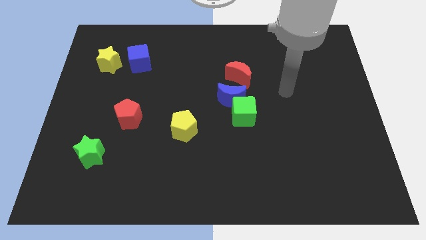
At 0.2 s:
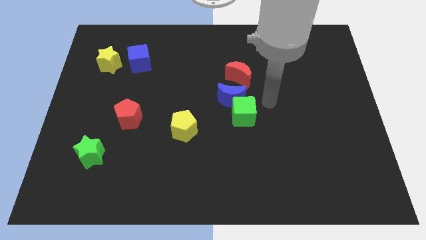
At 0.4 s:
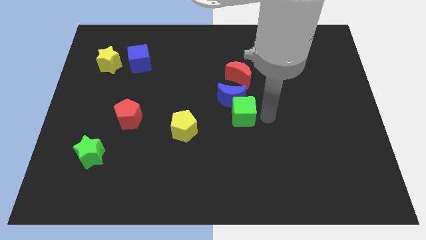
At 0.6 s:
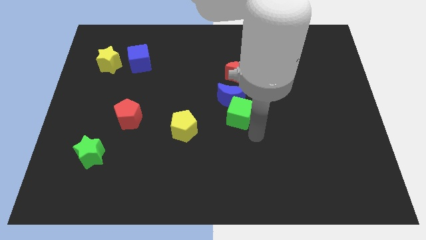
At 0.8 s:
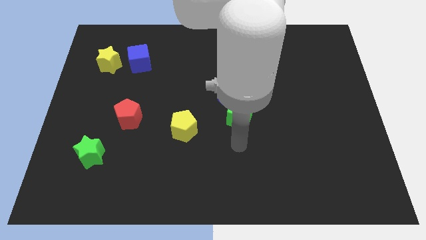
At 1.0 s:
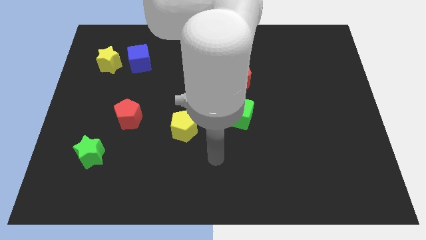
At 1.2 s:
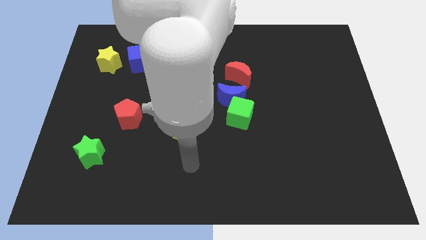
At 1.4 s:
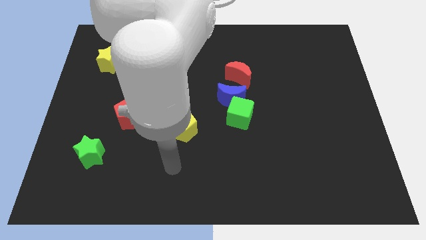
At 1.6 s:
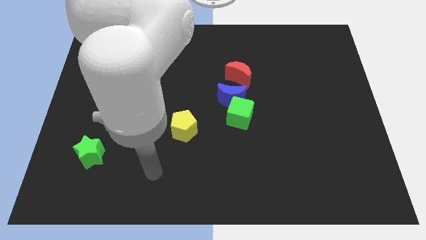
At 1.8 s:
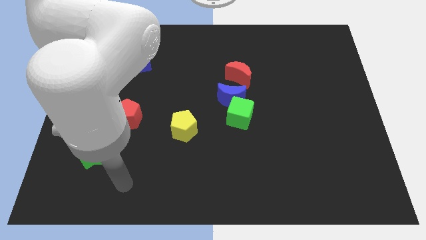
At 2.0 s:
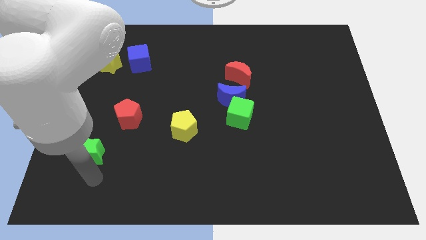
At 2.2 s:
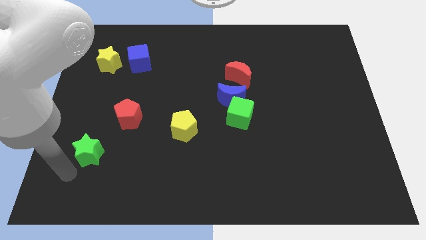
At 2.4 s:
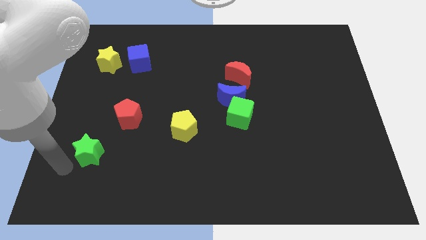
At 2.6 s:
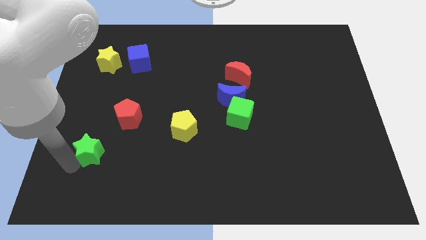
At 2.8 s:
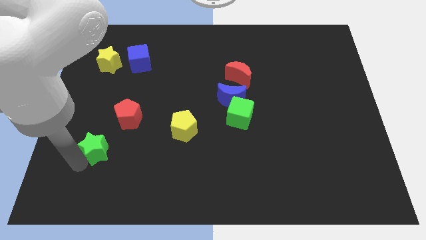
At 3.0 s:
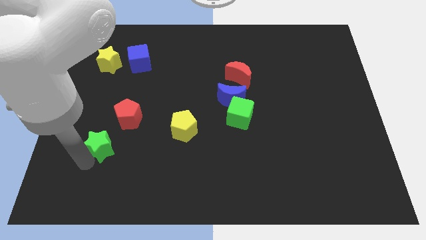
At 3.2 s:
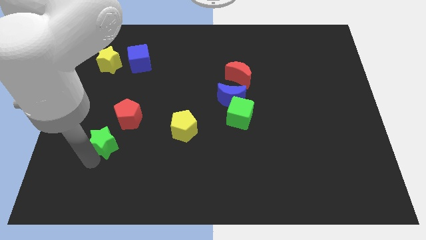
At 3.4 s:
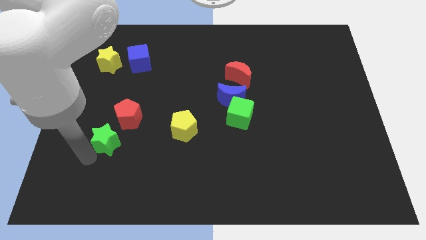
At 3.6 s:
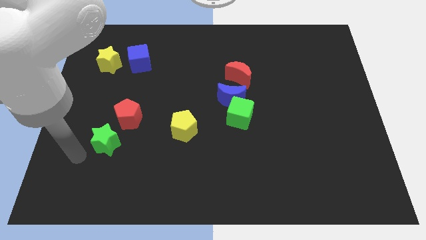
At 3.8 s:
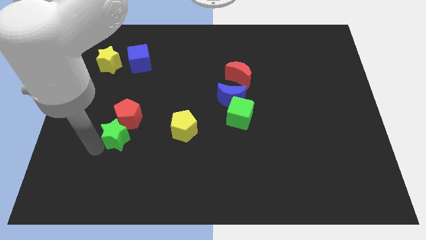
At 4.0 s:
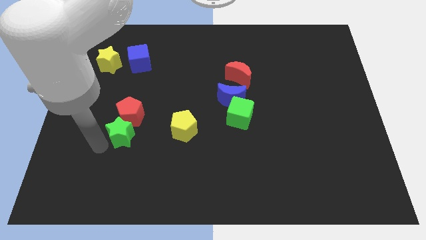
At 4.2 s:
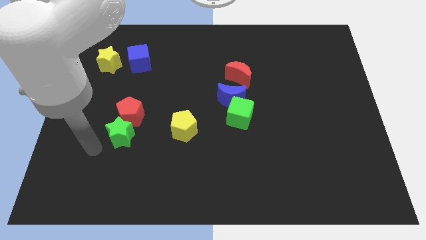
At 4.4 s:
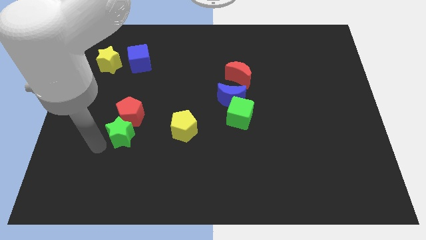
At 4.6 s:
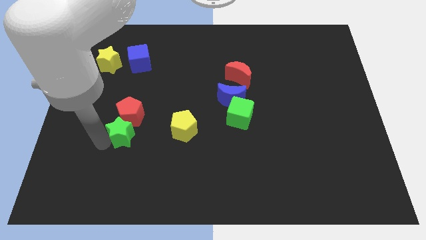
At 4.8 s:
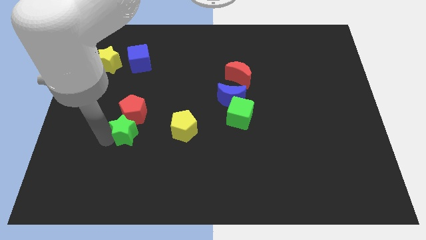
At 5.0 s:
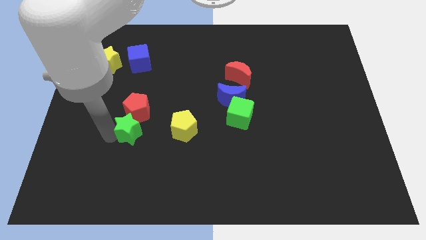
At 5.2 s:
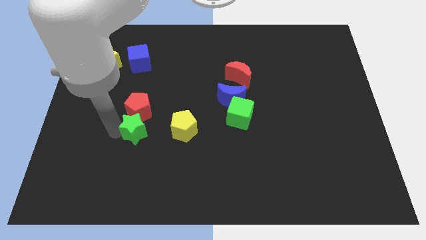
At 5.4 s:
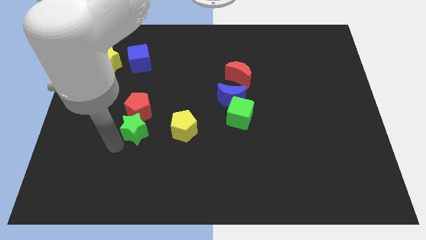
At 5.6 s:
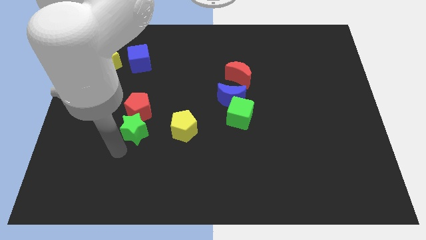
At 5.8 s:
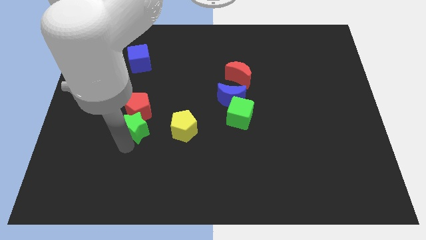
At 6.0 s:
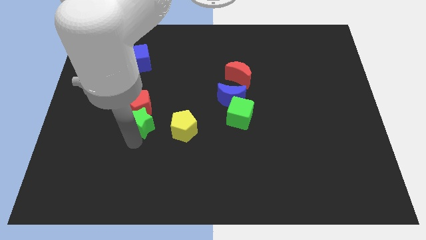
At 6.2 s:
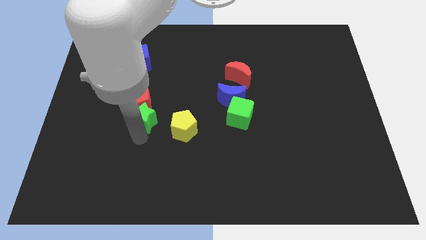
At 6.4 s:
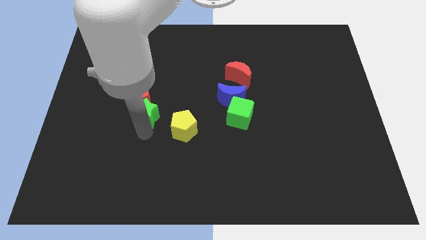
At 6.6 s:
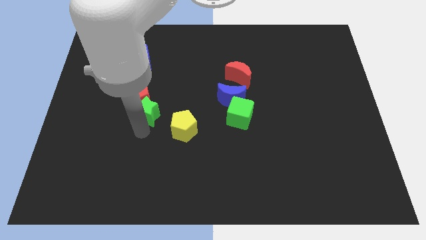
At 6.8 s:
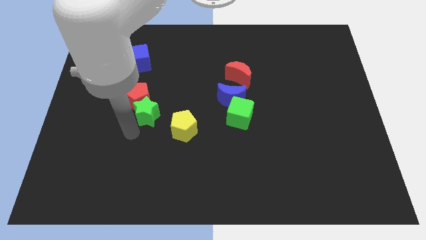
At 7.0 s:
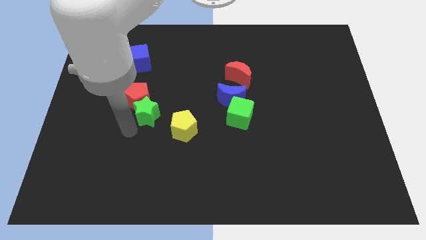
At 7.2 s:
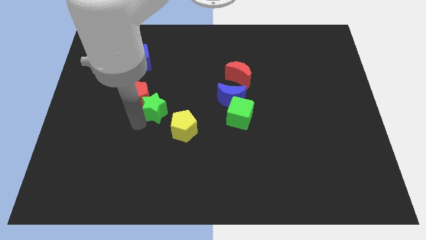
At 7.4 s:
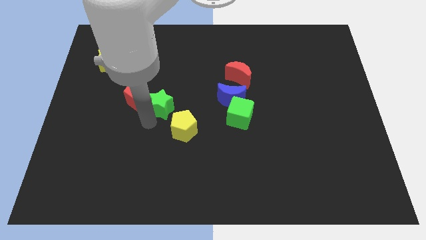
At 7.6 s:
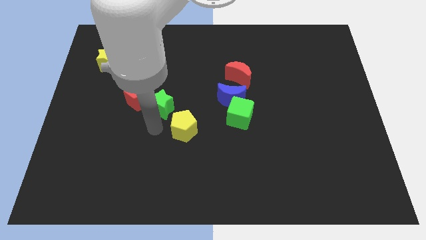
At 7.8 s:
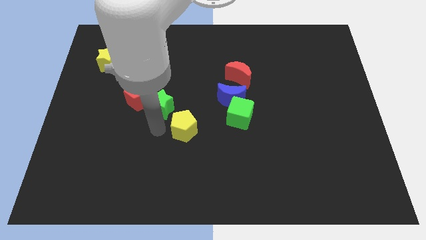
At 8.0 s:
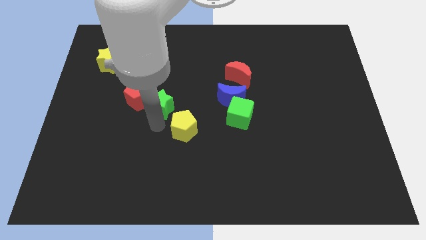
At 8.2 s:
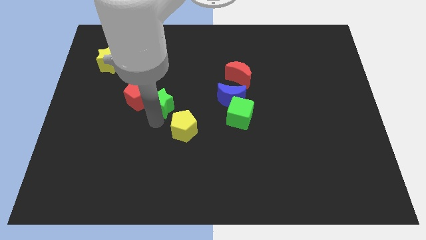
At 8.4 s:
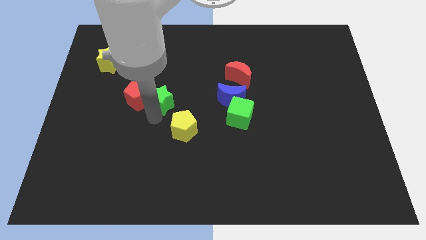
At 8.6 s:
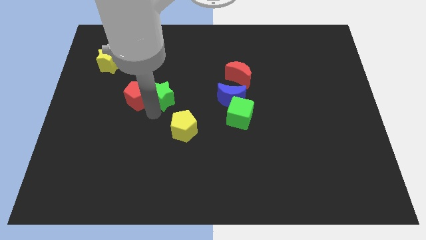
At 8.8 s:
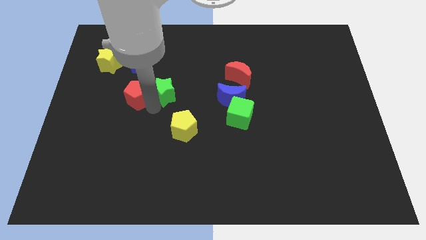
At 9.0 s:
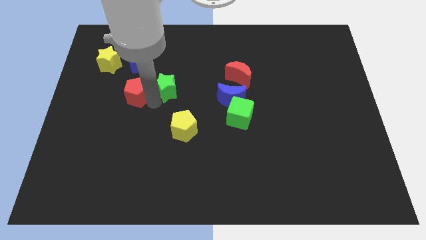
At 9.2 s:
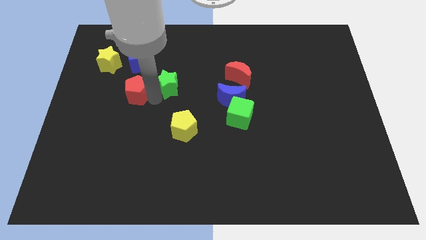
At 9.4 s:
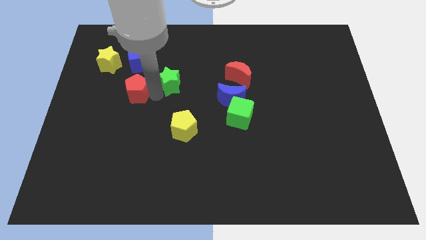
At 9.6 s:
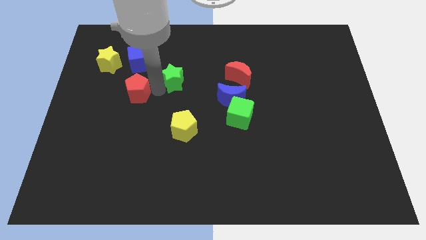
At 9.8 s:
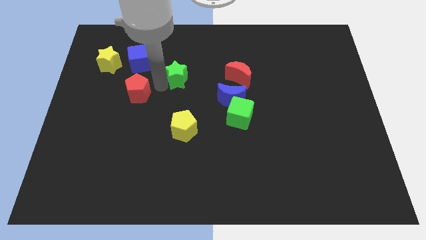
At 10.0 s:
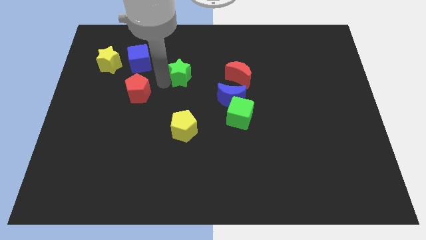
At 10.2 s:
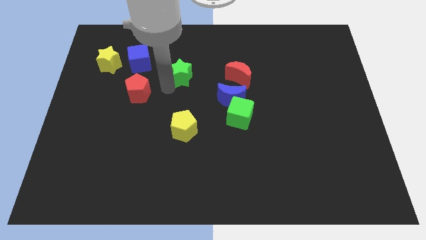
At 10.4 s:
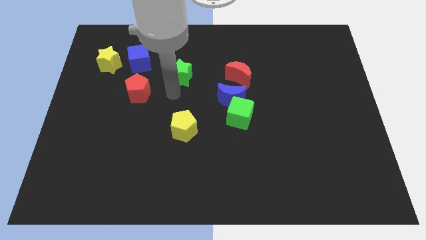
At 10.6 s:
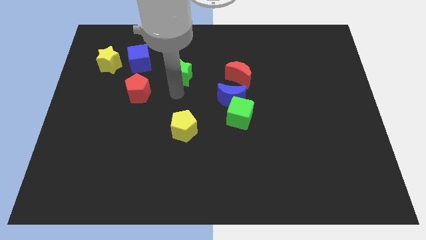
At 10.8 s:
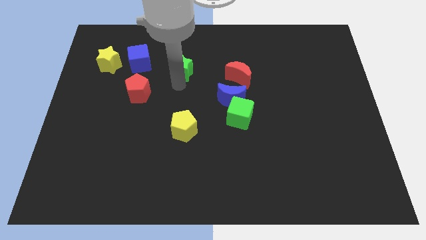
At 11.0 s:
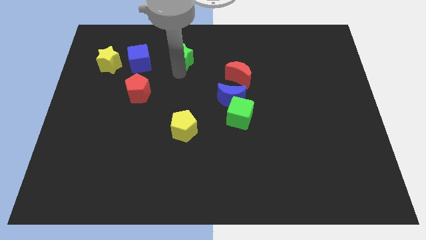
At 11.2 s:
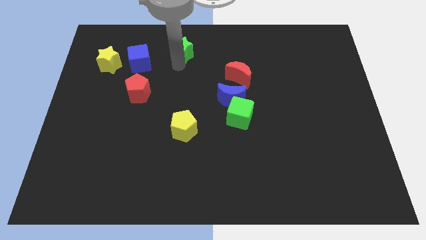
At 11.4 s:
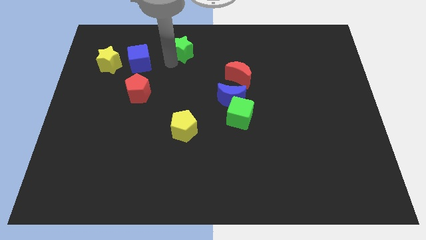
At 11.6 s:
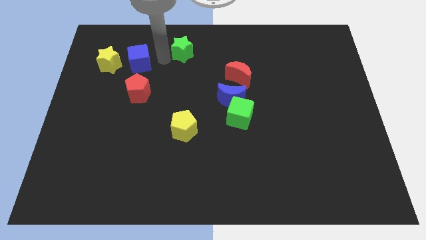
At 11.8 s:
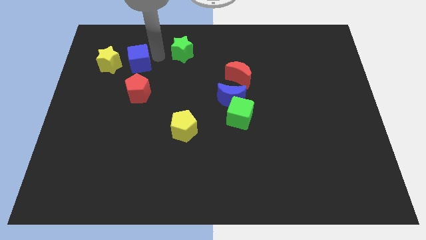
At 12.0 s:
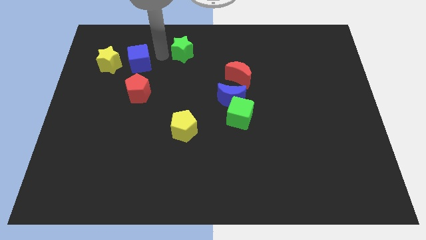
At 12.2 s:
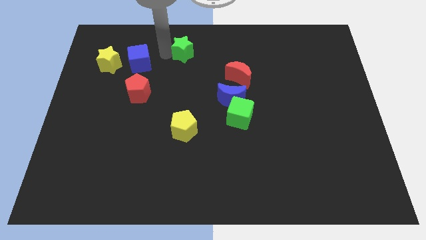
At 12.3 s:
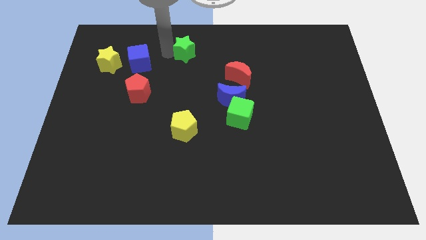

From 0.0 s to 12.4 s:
push the green star to the top

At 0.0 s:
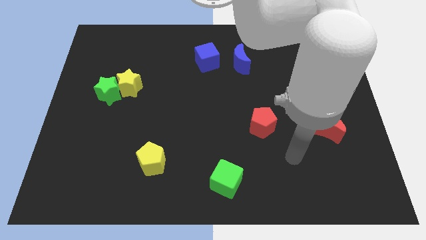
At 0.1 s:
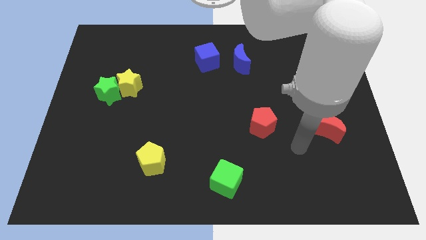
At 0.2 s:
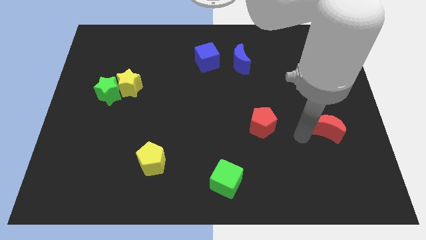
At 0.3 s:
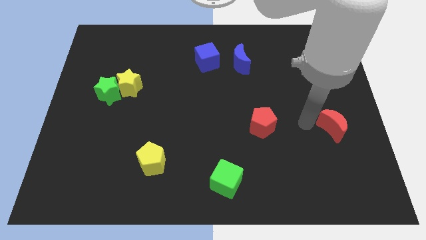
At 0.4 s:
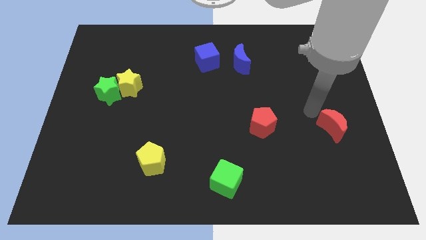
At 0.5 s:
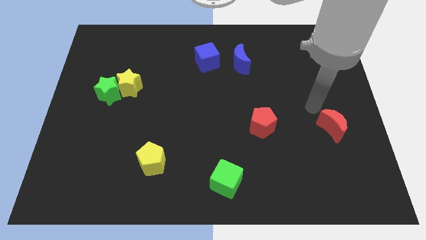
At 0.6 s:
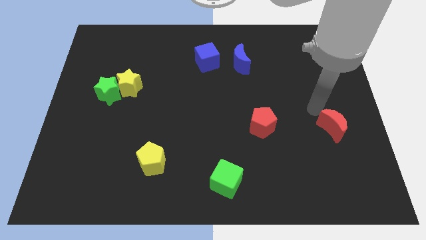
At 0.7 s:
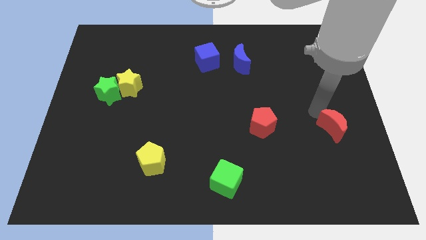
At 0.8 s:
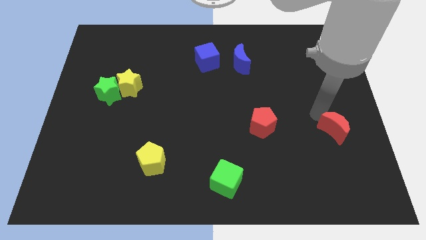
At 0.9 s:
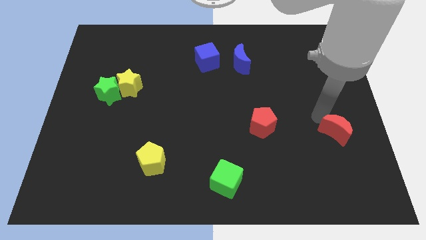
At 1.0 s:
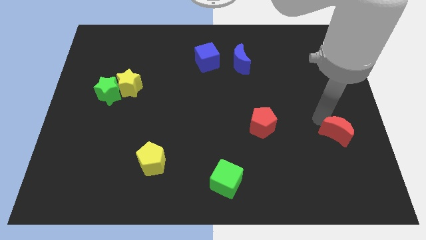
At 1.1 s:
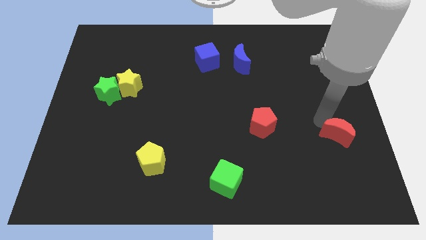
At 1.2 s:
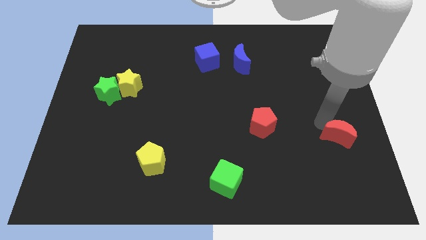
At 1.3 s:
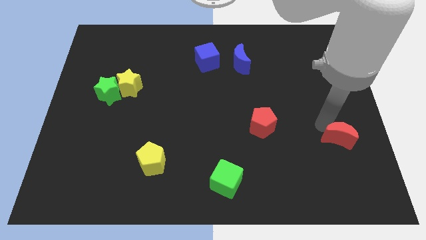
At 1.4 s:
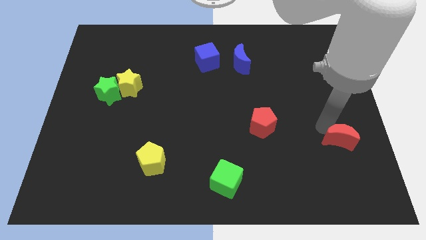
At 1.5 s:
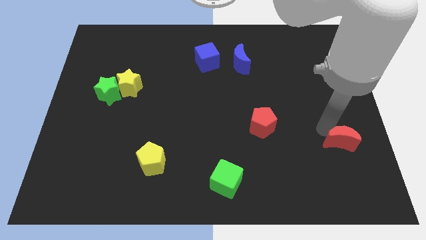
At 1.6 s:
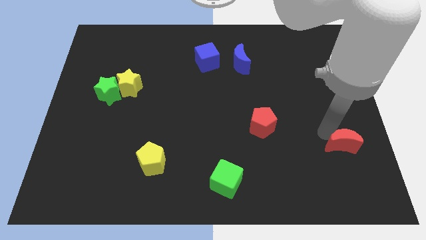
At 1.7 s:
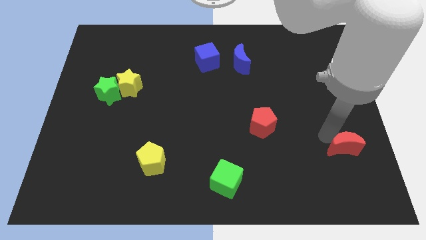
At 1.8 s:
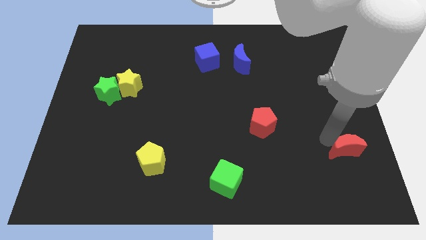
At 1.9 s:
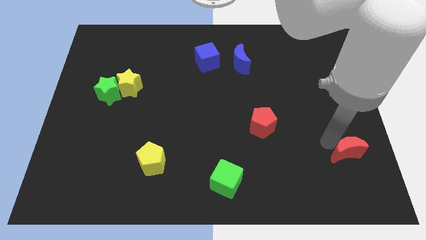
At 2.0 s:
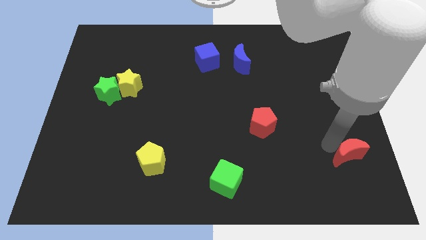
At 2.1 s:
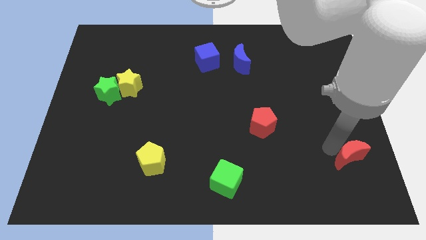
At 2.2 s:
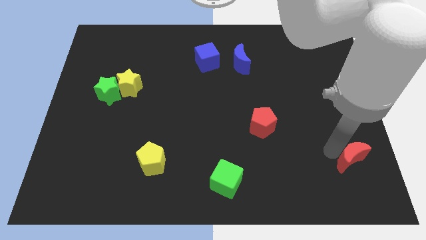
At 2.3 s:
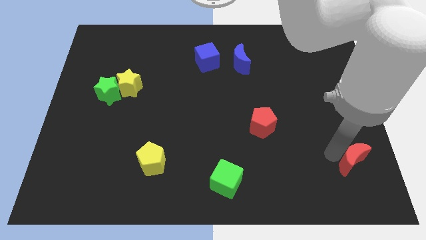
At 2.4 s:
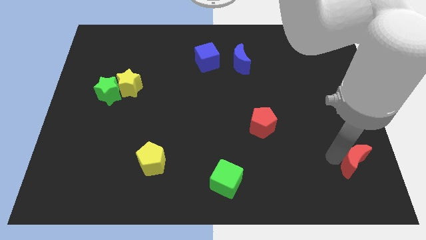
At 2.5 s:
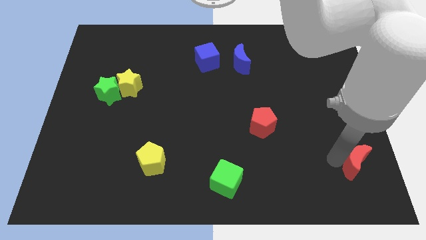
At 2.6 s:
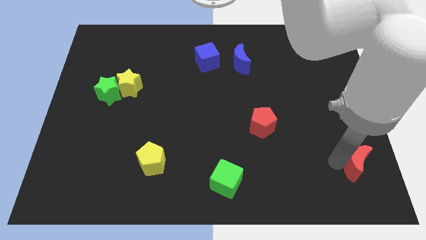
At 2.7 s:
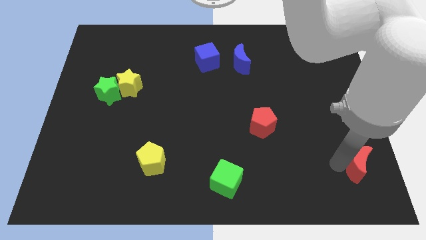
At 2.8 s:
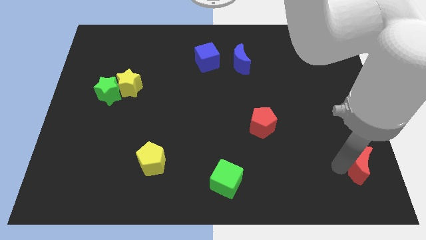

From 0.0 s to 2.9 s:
put the red moon to the lower right corner
